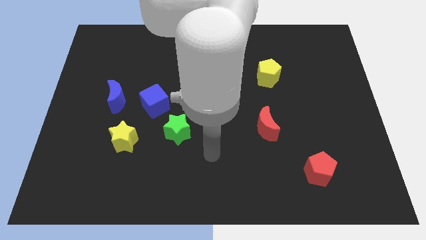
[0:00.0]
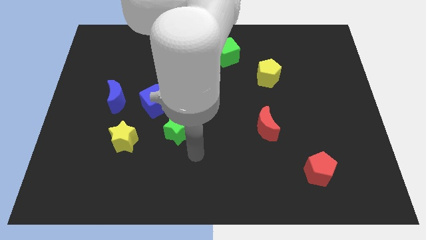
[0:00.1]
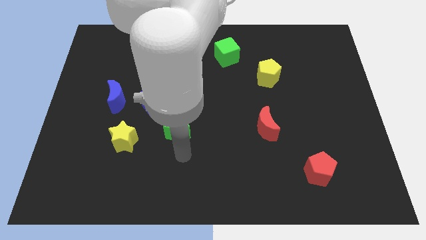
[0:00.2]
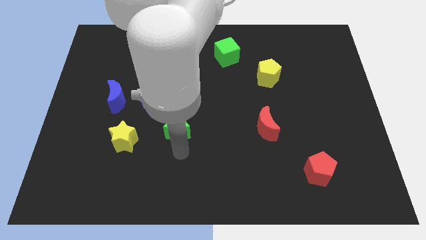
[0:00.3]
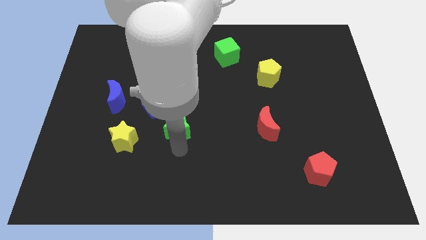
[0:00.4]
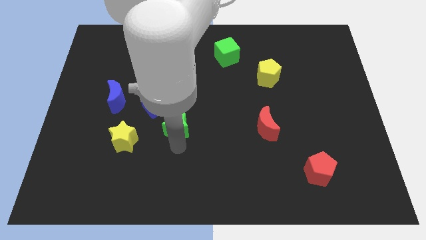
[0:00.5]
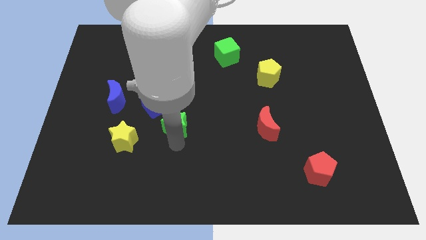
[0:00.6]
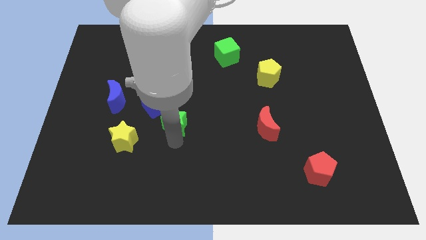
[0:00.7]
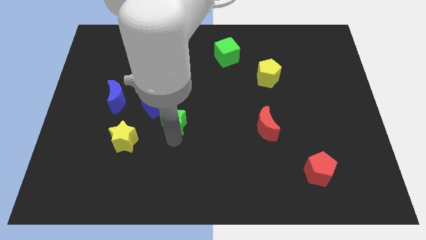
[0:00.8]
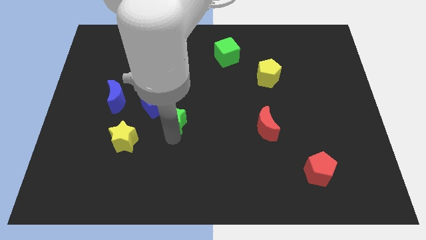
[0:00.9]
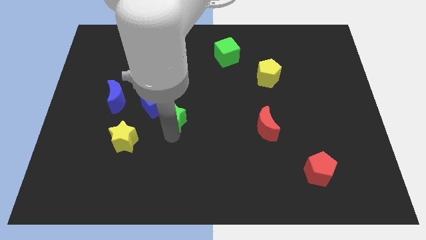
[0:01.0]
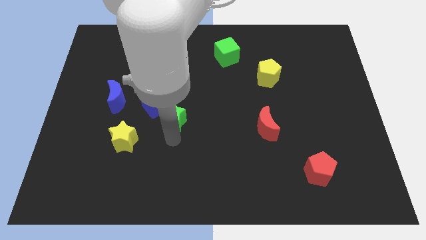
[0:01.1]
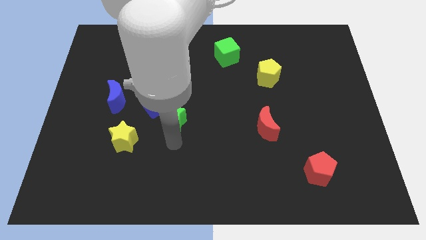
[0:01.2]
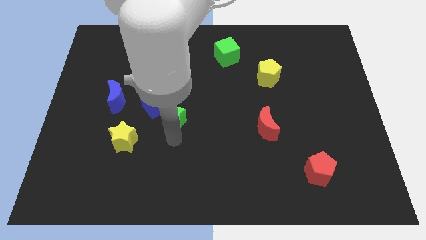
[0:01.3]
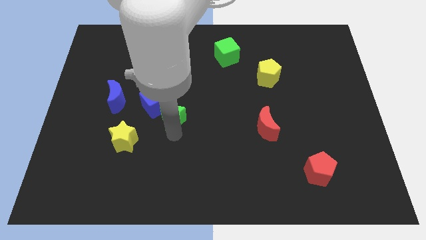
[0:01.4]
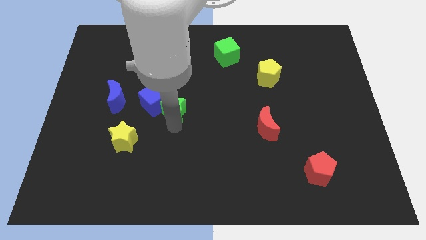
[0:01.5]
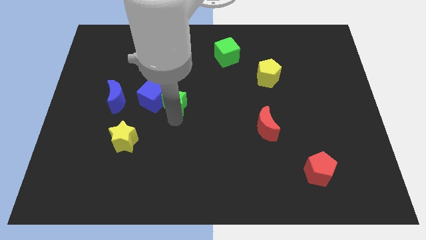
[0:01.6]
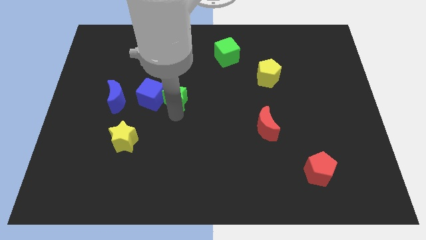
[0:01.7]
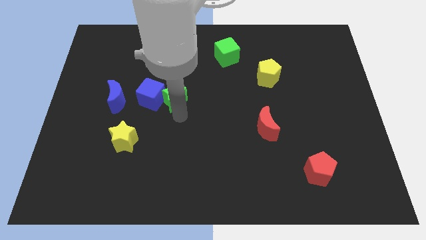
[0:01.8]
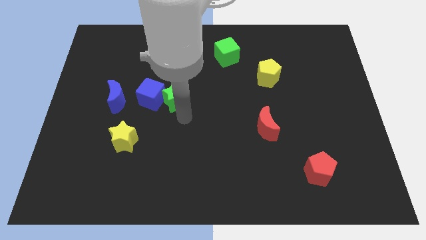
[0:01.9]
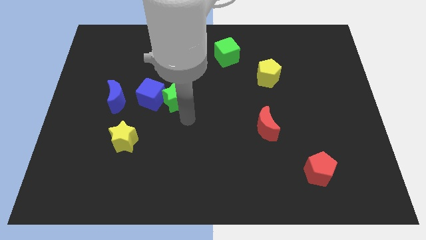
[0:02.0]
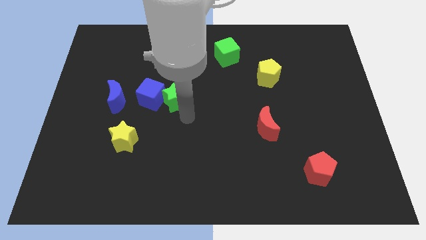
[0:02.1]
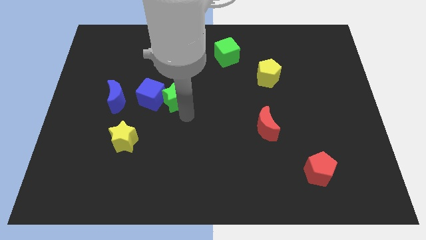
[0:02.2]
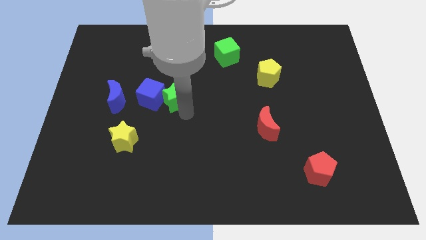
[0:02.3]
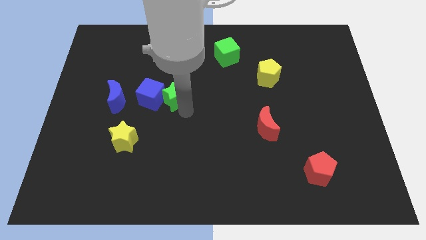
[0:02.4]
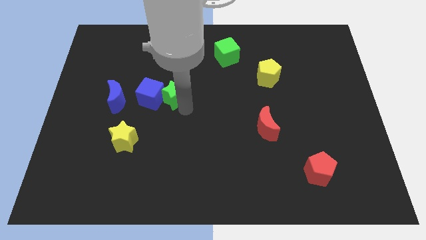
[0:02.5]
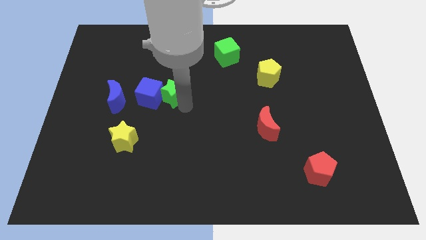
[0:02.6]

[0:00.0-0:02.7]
slightly push the green star up and to the left

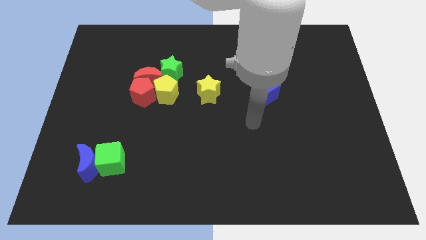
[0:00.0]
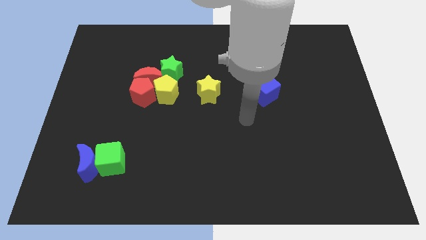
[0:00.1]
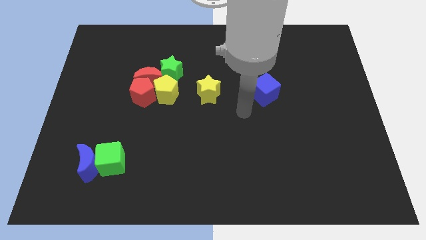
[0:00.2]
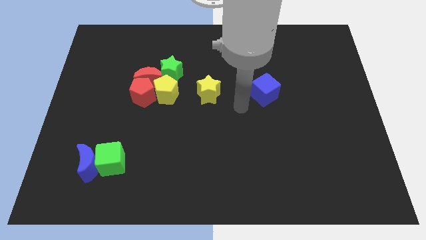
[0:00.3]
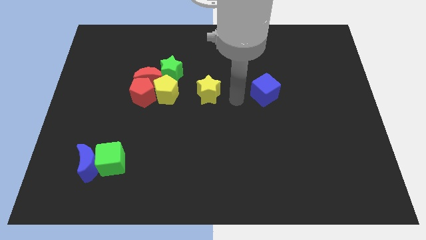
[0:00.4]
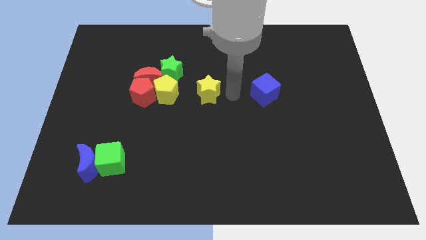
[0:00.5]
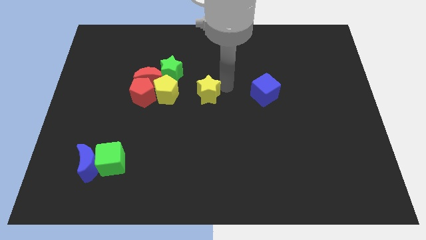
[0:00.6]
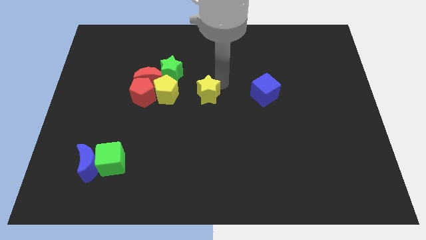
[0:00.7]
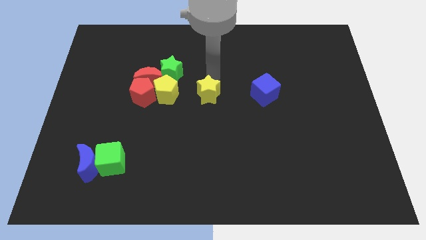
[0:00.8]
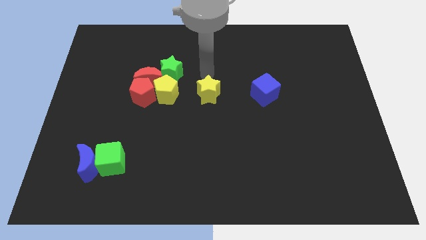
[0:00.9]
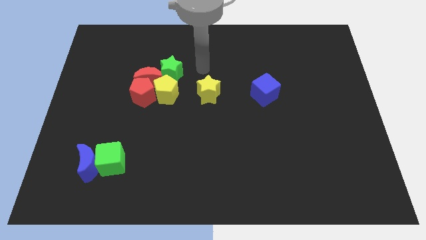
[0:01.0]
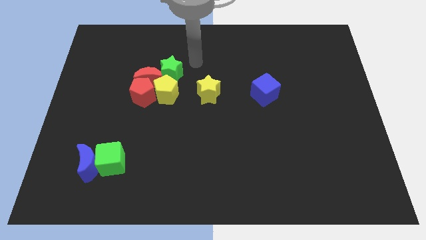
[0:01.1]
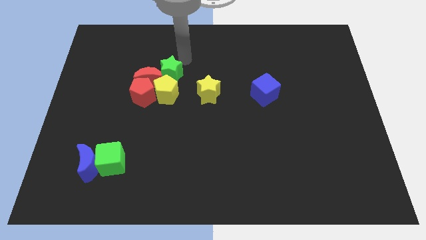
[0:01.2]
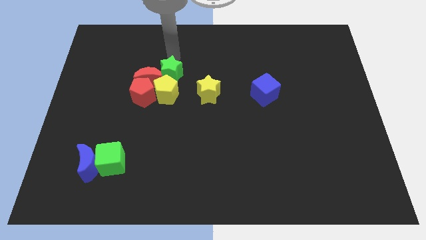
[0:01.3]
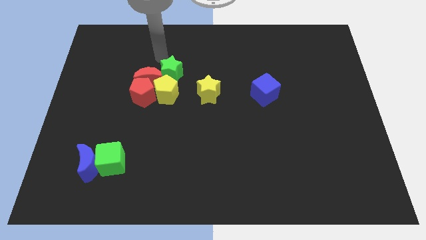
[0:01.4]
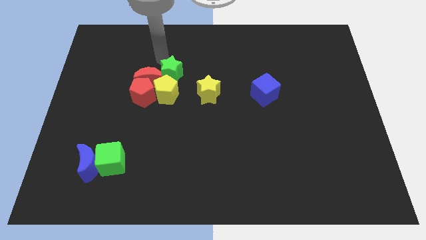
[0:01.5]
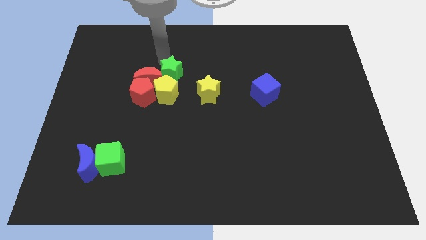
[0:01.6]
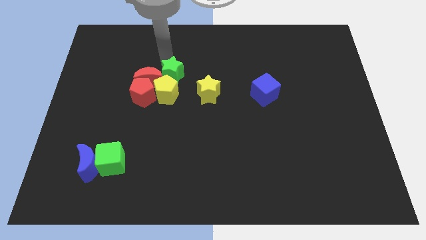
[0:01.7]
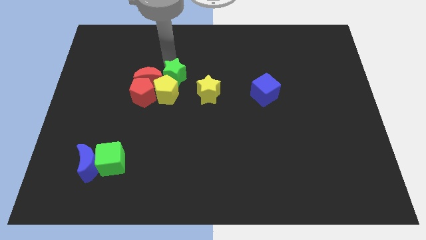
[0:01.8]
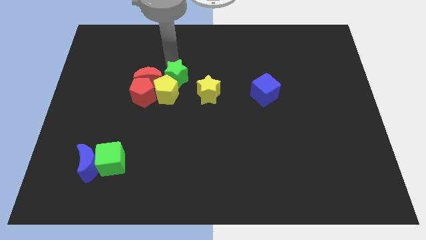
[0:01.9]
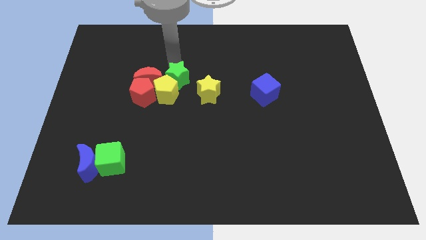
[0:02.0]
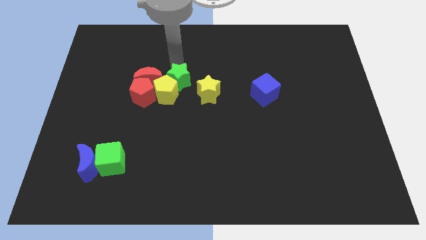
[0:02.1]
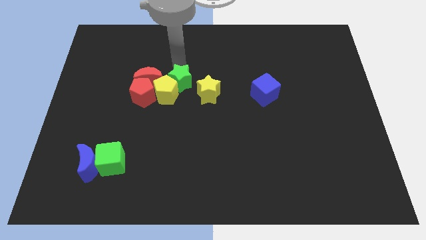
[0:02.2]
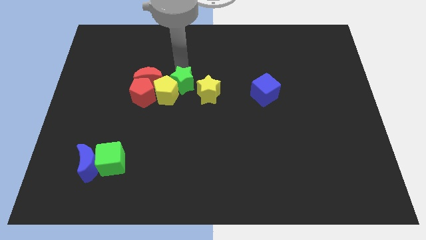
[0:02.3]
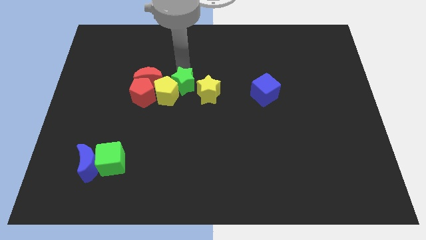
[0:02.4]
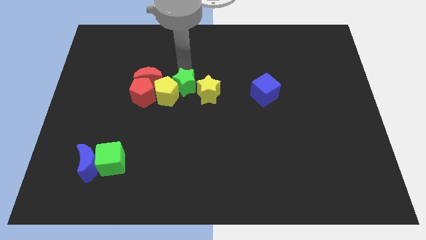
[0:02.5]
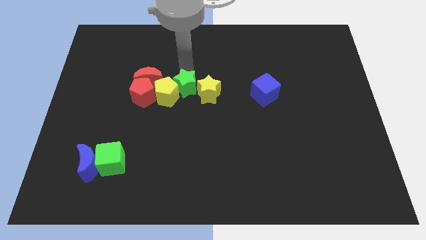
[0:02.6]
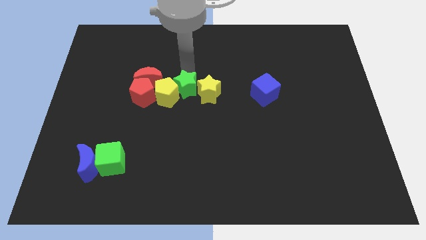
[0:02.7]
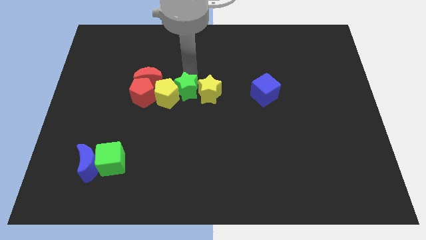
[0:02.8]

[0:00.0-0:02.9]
slightly move the green star diagonally down and to the right

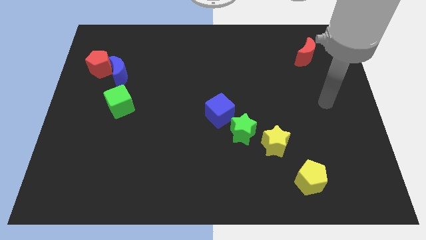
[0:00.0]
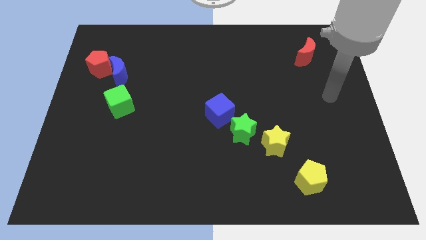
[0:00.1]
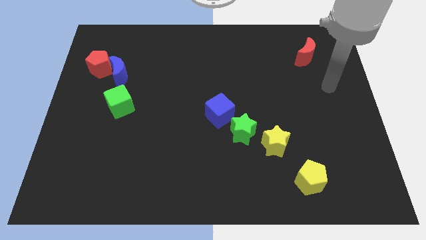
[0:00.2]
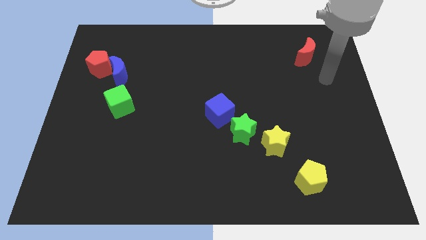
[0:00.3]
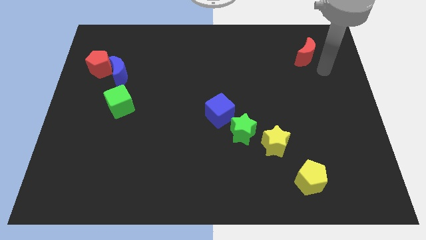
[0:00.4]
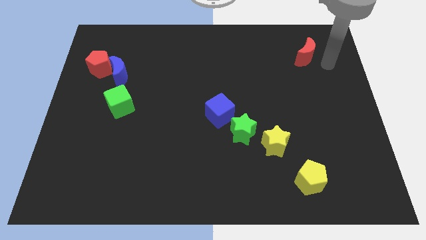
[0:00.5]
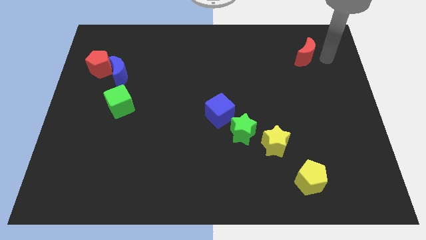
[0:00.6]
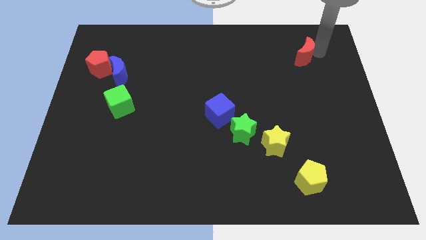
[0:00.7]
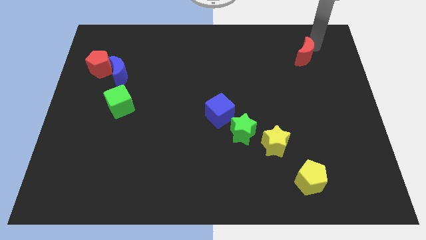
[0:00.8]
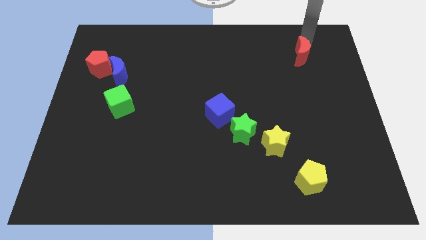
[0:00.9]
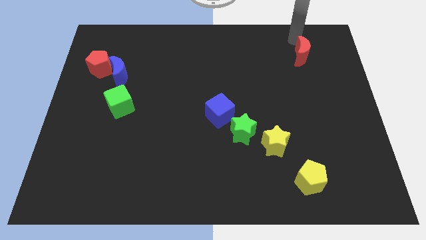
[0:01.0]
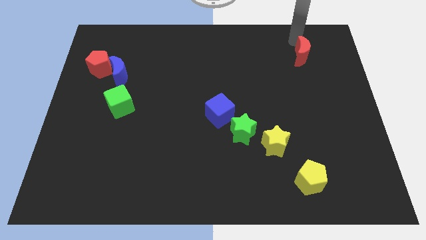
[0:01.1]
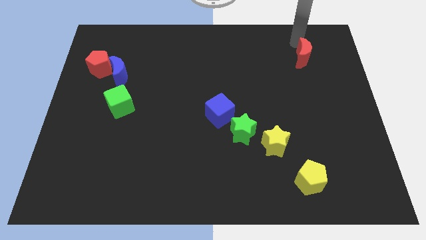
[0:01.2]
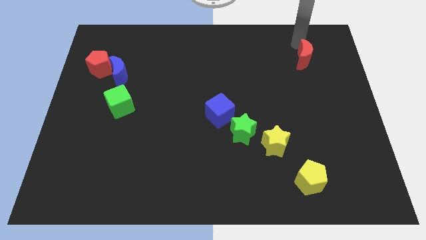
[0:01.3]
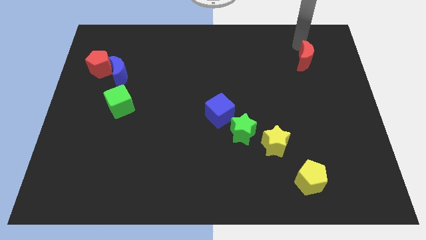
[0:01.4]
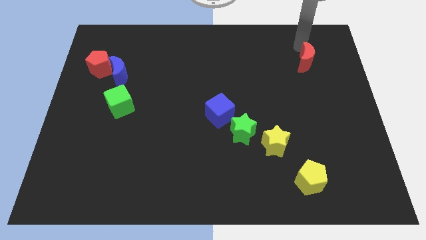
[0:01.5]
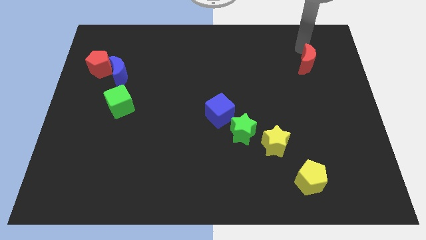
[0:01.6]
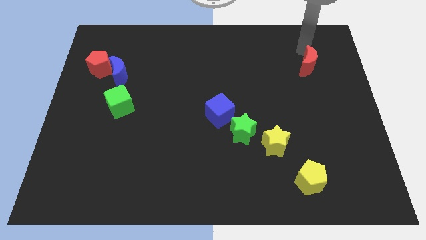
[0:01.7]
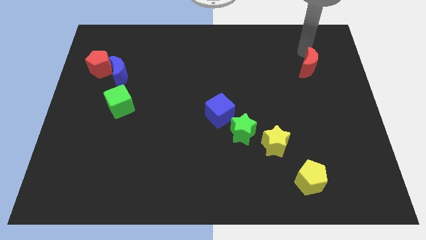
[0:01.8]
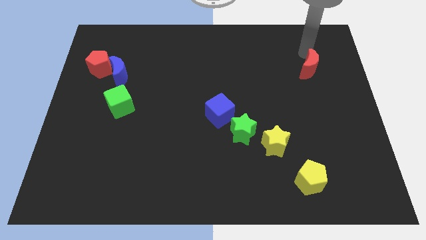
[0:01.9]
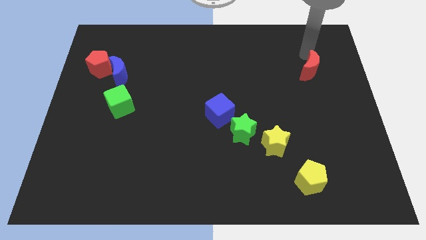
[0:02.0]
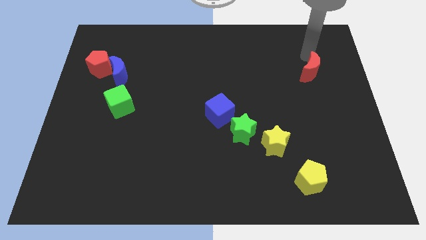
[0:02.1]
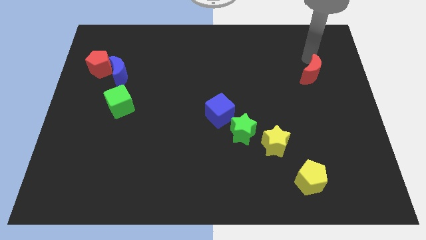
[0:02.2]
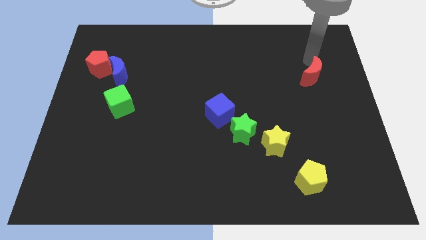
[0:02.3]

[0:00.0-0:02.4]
slide the red moon a little bit downwards
